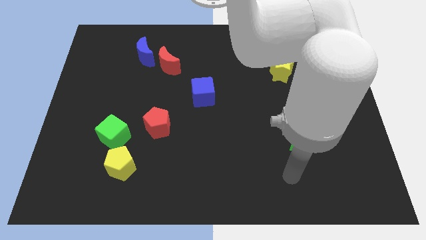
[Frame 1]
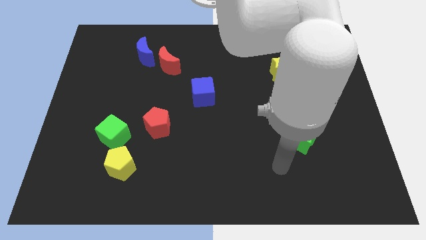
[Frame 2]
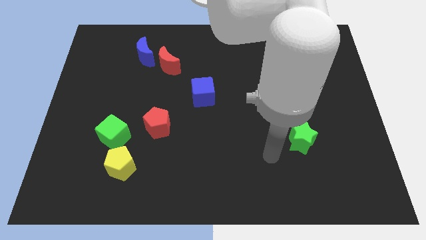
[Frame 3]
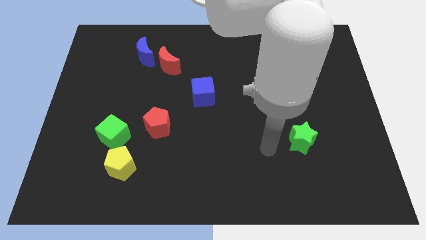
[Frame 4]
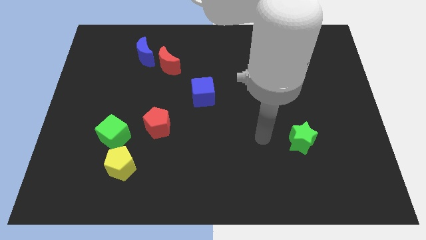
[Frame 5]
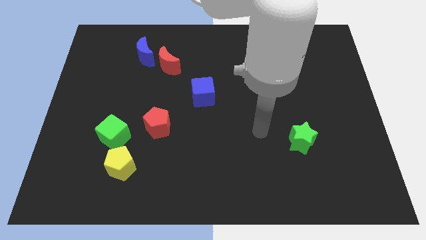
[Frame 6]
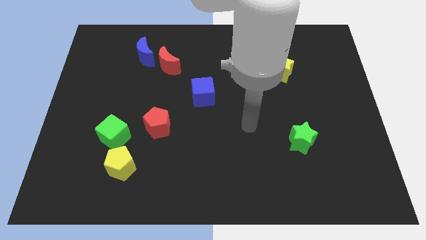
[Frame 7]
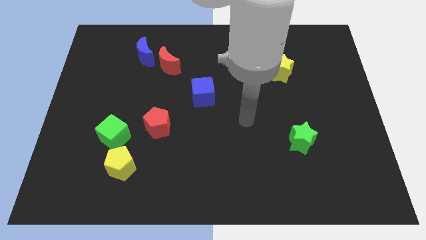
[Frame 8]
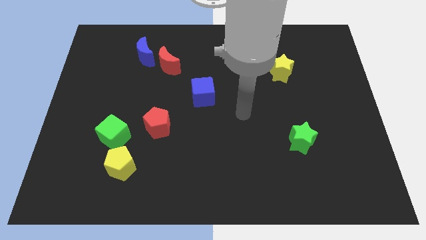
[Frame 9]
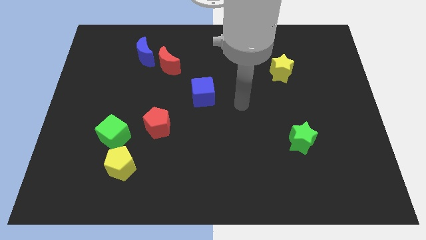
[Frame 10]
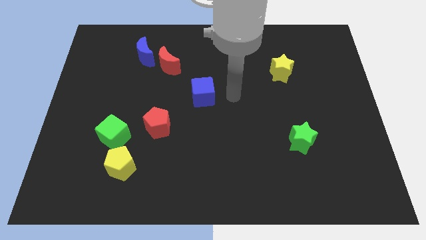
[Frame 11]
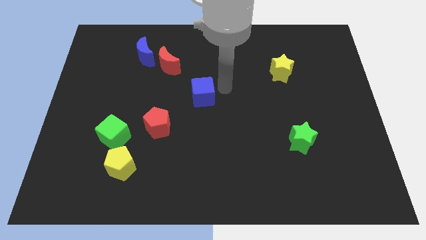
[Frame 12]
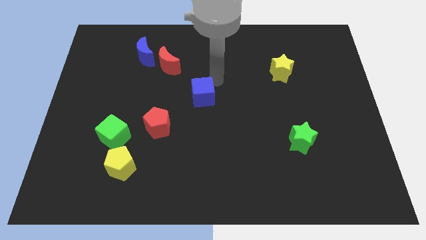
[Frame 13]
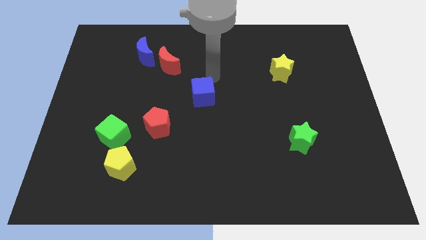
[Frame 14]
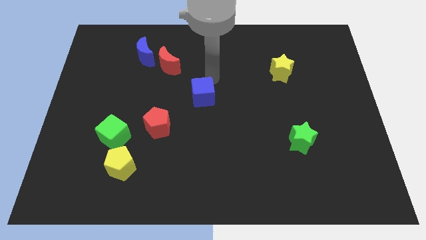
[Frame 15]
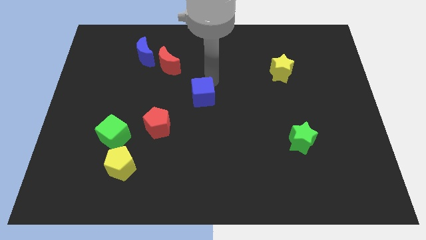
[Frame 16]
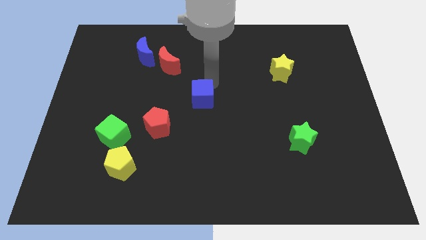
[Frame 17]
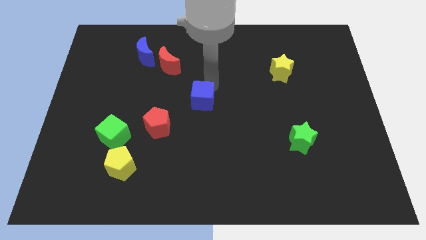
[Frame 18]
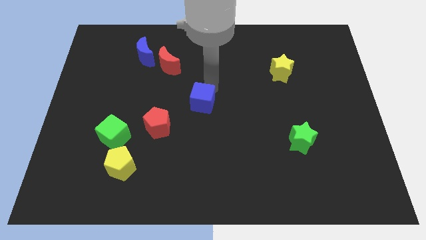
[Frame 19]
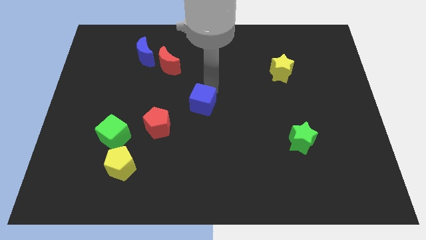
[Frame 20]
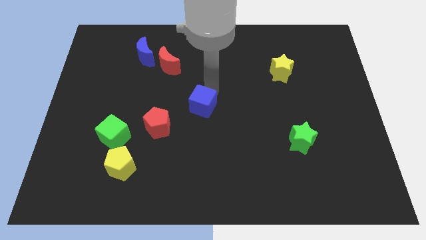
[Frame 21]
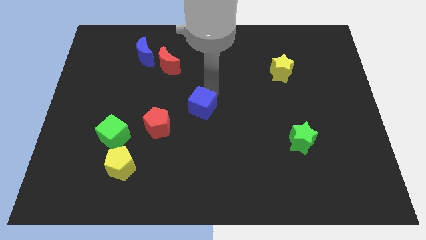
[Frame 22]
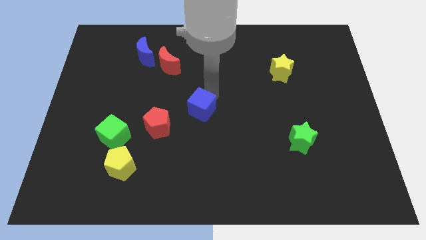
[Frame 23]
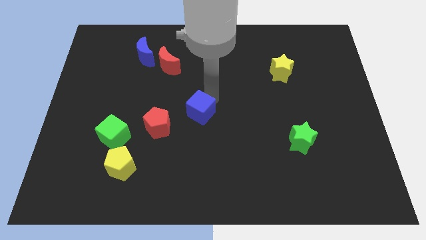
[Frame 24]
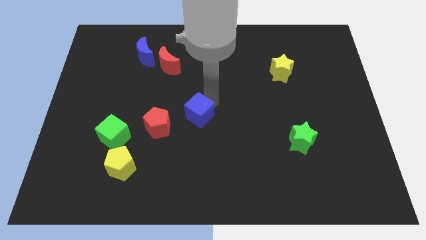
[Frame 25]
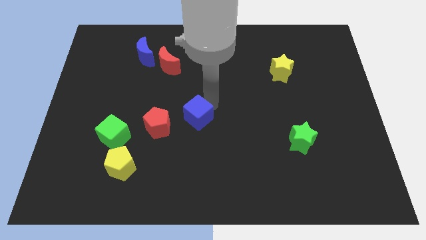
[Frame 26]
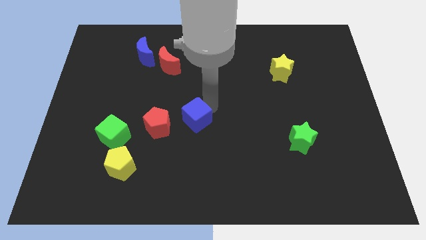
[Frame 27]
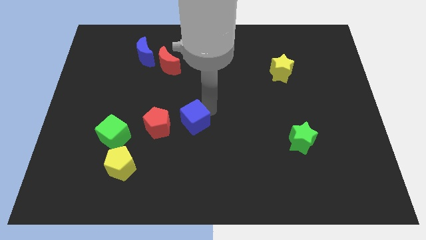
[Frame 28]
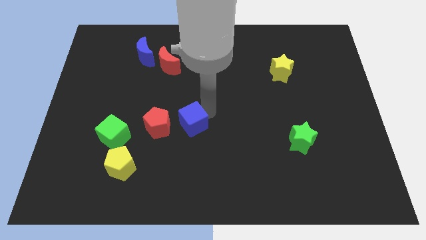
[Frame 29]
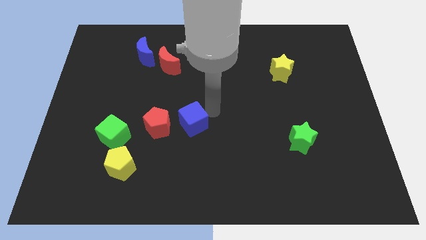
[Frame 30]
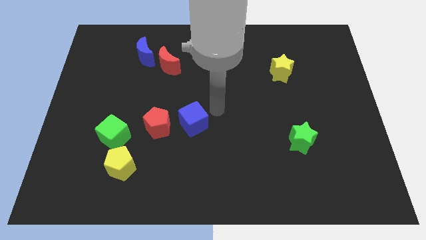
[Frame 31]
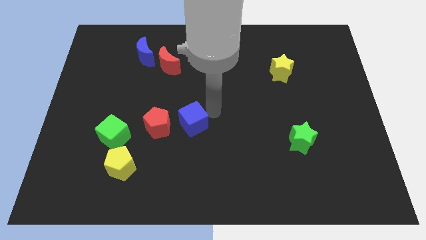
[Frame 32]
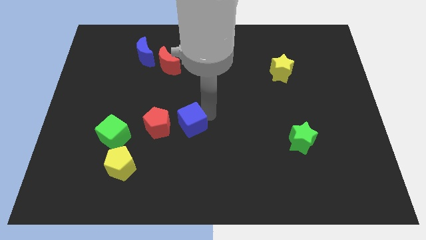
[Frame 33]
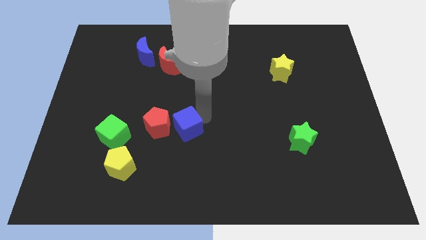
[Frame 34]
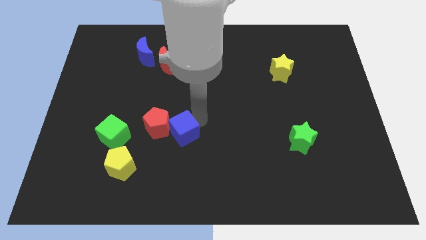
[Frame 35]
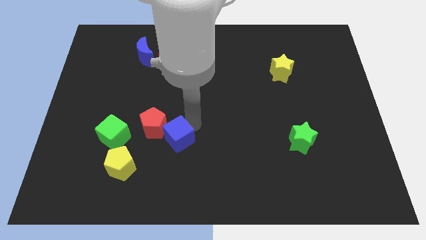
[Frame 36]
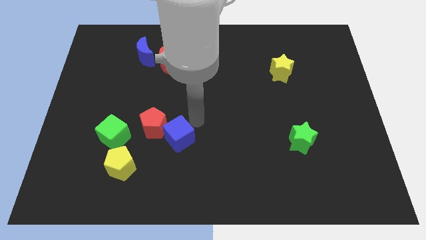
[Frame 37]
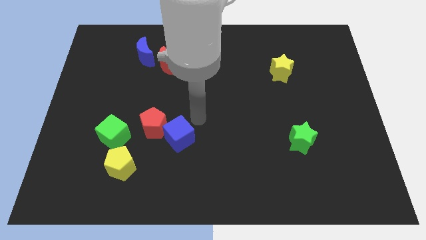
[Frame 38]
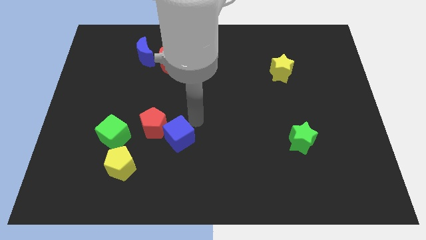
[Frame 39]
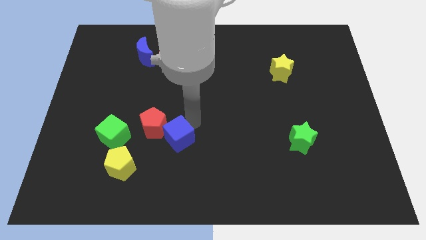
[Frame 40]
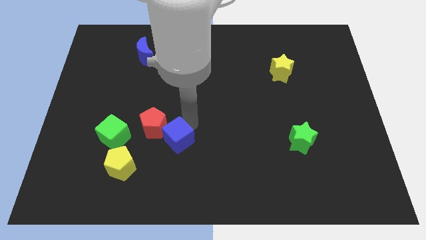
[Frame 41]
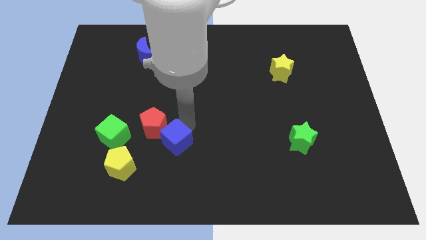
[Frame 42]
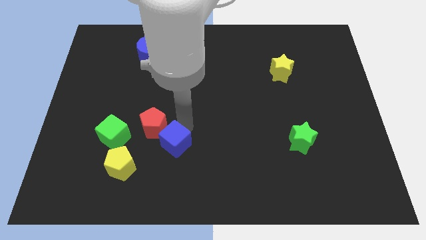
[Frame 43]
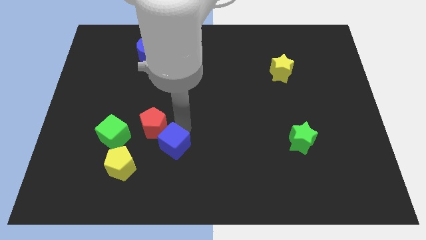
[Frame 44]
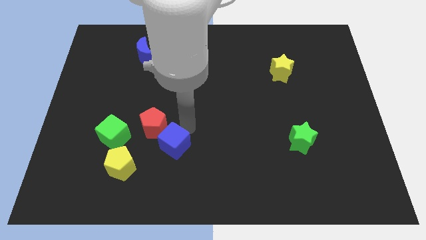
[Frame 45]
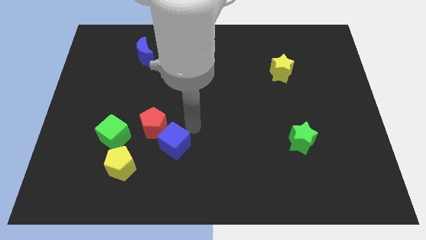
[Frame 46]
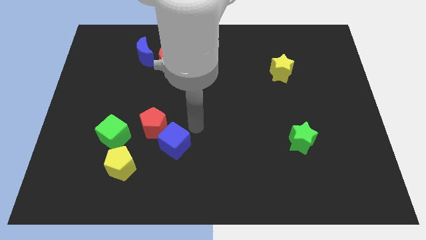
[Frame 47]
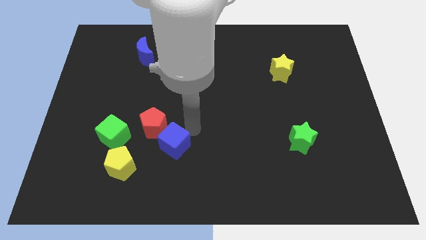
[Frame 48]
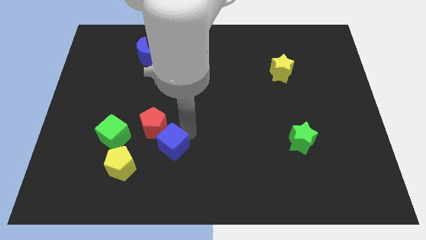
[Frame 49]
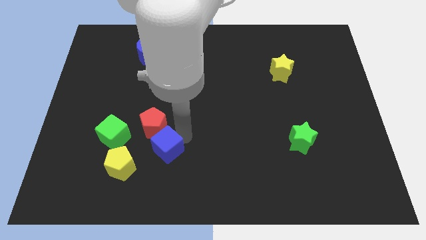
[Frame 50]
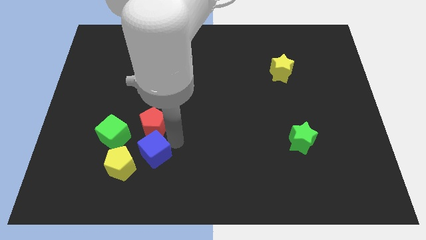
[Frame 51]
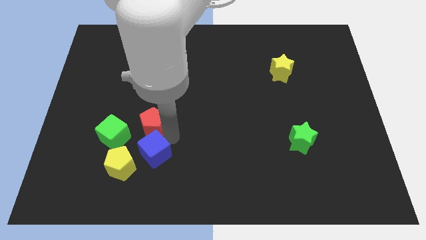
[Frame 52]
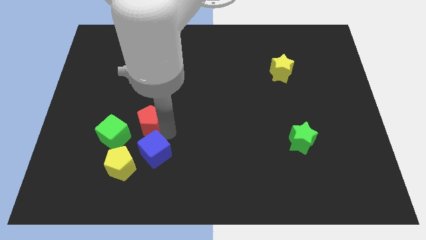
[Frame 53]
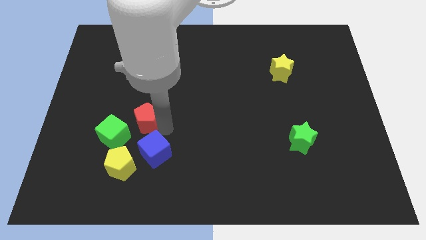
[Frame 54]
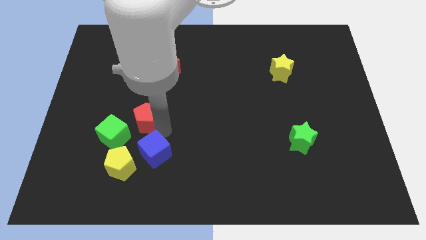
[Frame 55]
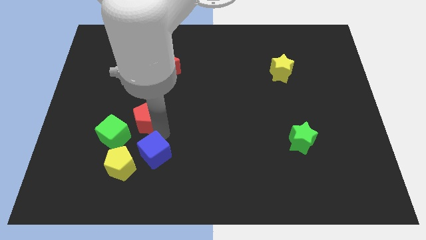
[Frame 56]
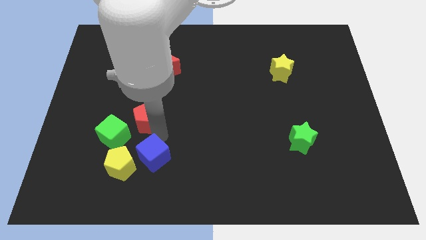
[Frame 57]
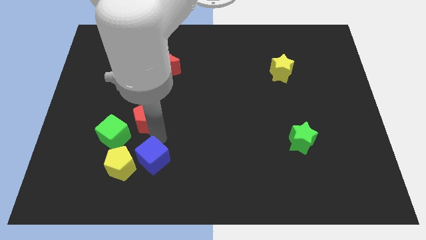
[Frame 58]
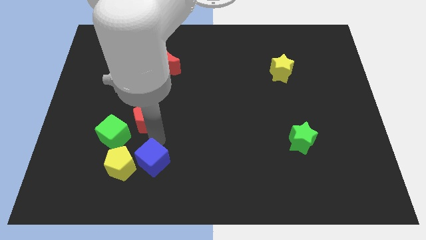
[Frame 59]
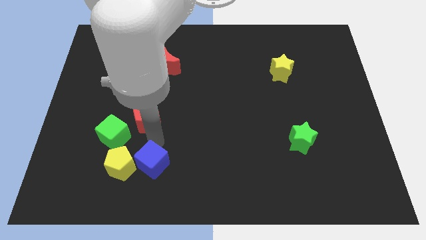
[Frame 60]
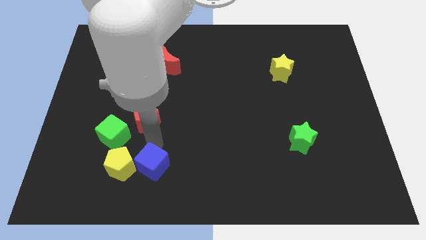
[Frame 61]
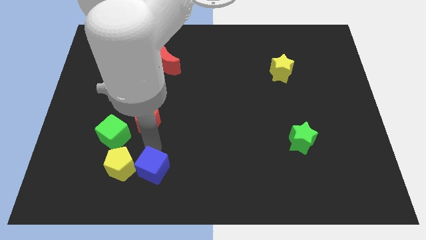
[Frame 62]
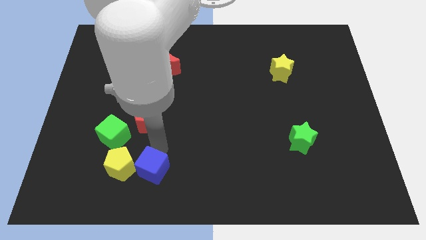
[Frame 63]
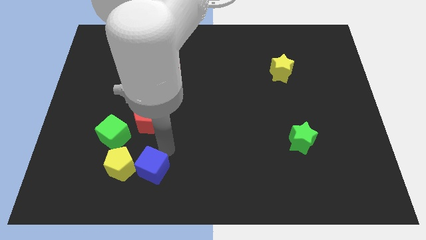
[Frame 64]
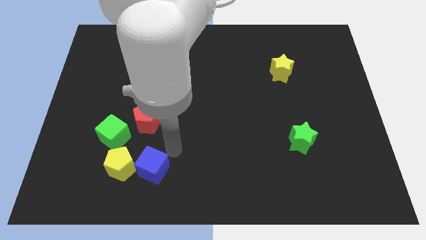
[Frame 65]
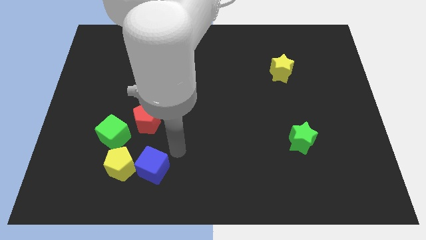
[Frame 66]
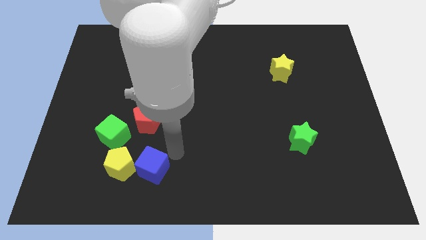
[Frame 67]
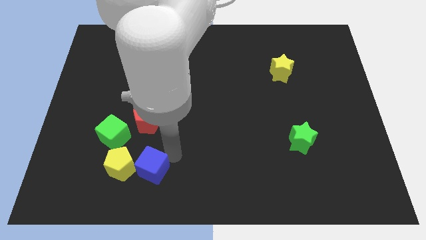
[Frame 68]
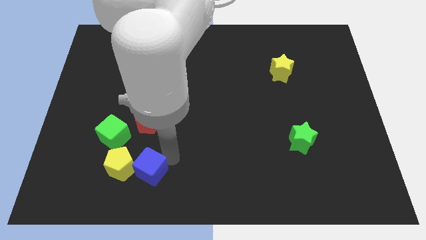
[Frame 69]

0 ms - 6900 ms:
slide the blue cube down and left diagonally

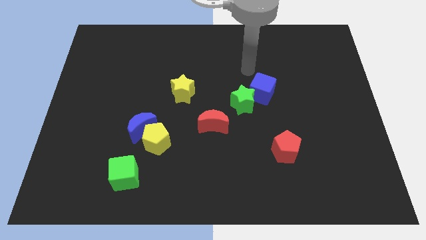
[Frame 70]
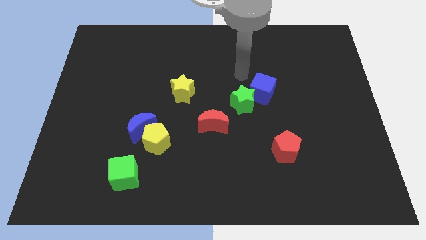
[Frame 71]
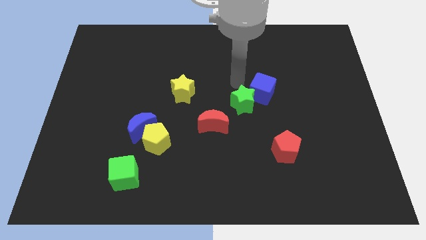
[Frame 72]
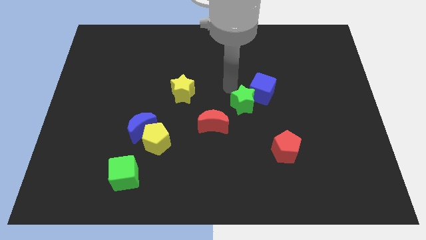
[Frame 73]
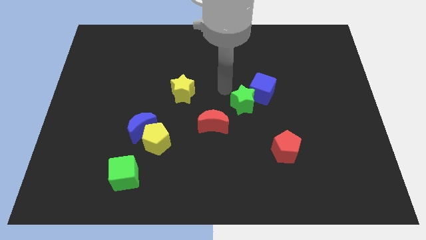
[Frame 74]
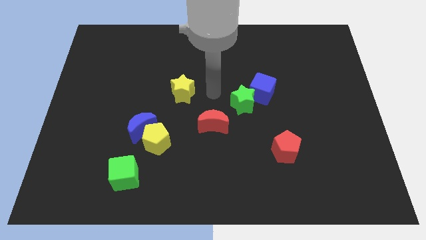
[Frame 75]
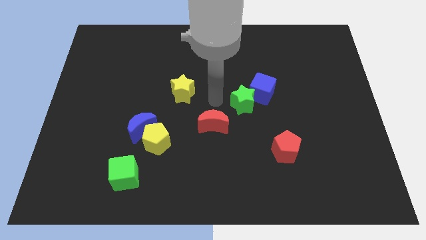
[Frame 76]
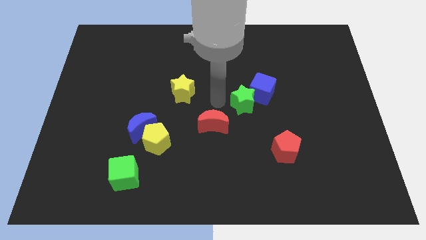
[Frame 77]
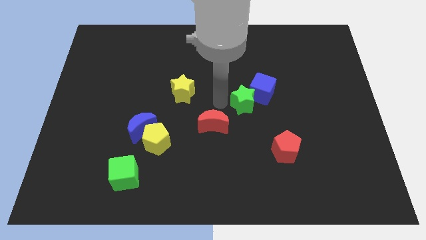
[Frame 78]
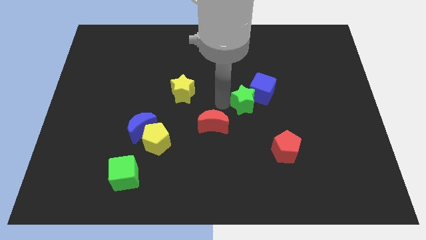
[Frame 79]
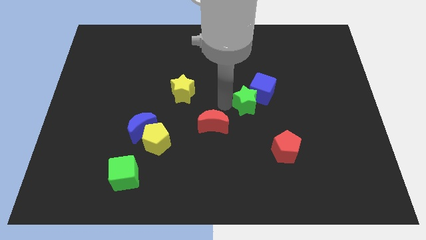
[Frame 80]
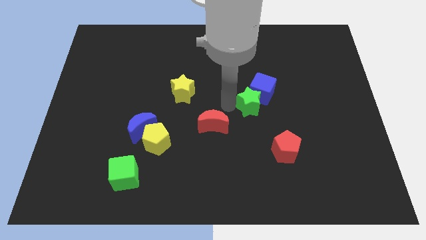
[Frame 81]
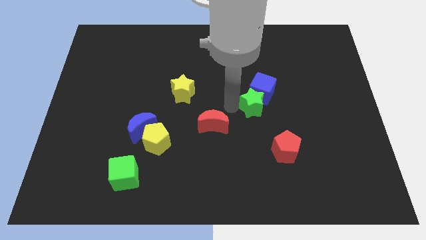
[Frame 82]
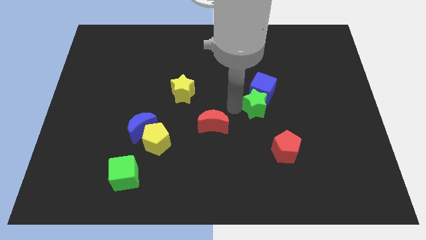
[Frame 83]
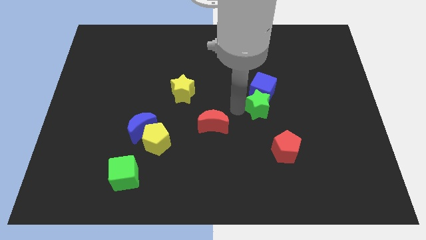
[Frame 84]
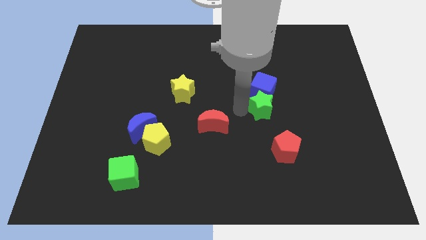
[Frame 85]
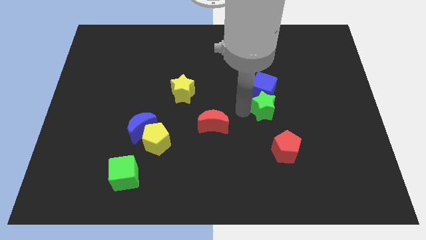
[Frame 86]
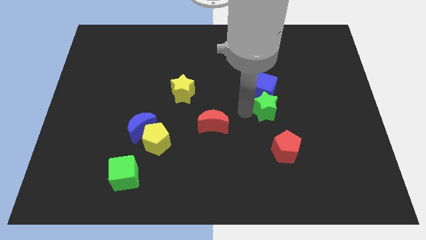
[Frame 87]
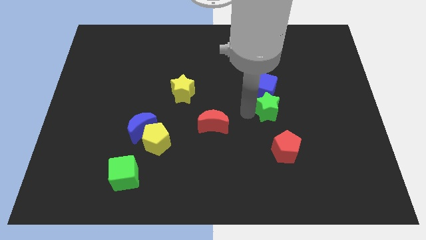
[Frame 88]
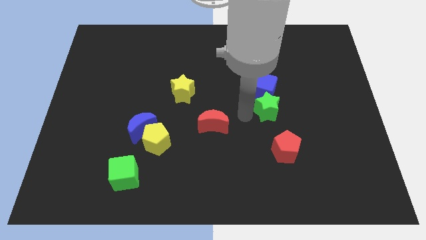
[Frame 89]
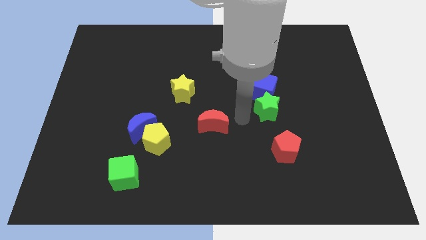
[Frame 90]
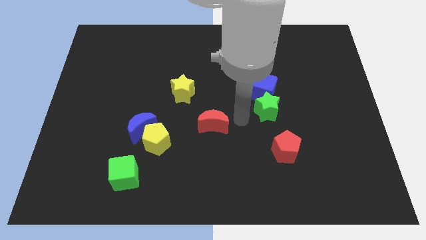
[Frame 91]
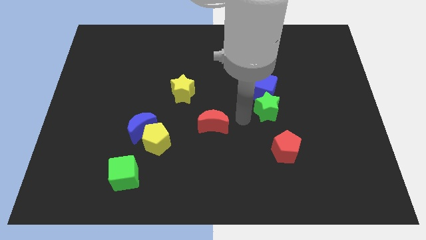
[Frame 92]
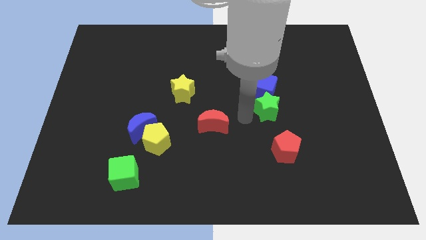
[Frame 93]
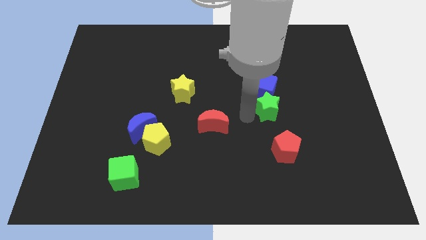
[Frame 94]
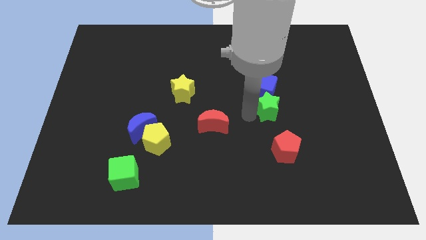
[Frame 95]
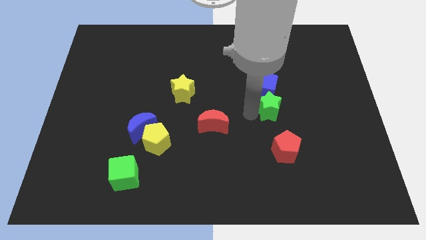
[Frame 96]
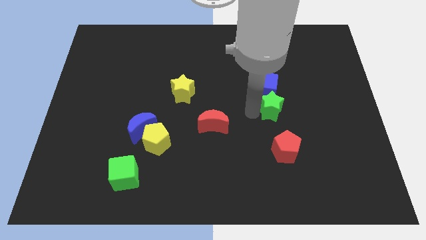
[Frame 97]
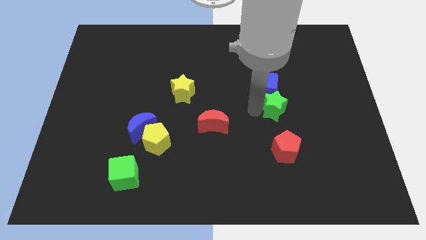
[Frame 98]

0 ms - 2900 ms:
slide the green star right somewhat
